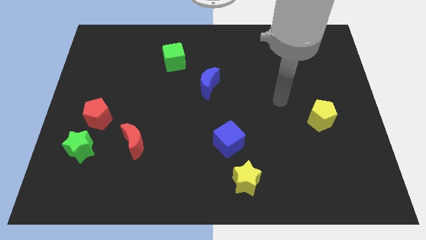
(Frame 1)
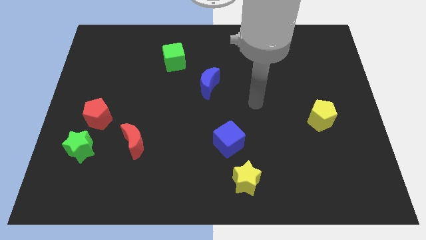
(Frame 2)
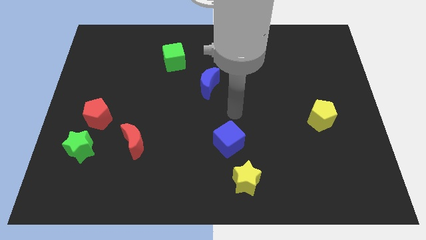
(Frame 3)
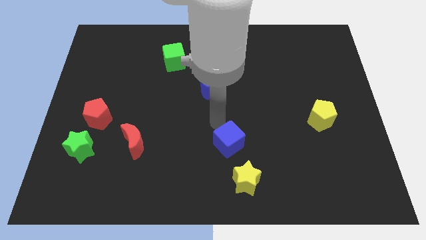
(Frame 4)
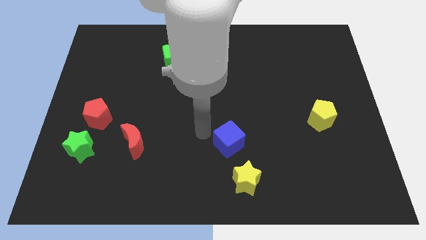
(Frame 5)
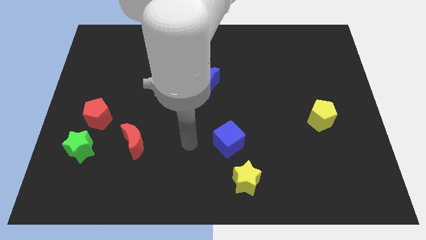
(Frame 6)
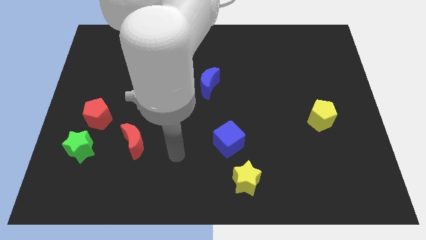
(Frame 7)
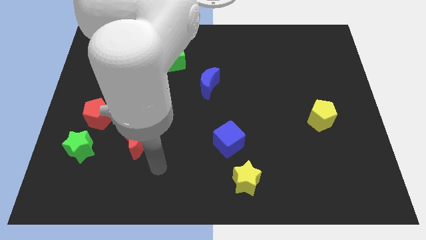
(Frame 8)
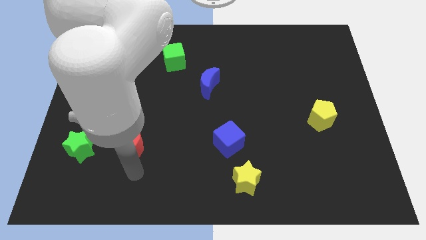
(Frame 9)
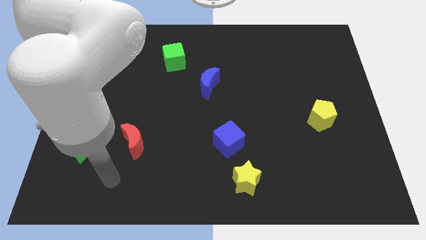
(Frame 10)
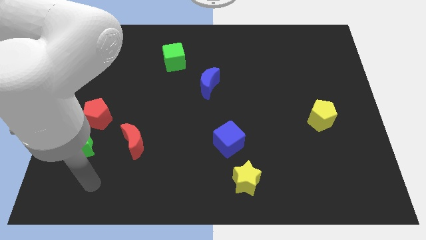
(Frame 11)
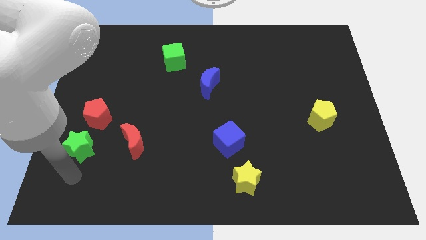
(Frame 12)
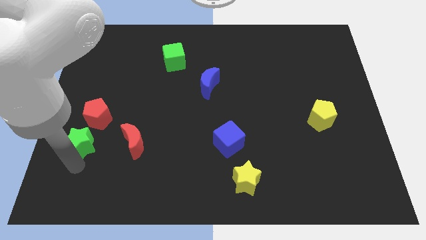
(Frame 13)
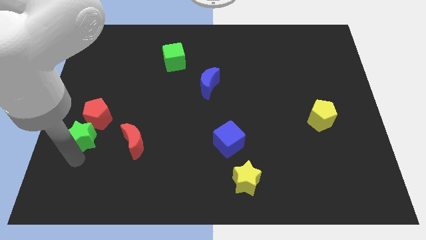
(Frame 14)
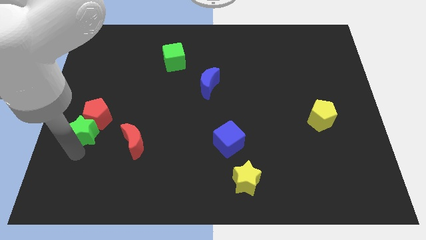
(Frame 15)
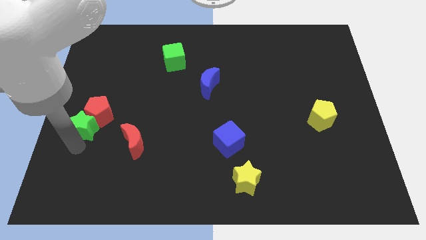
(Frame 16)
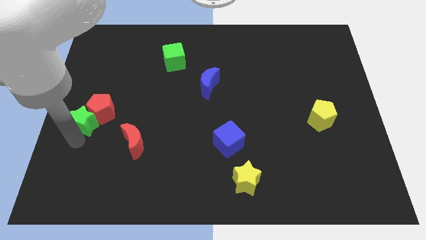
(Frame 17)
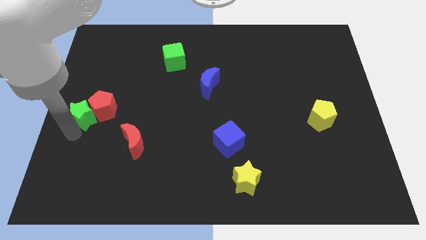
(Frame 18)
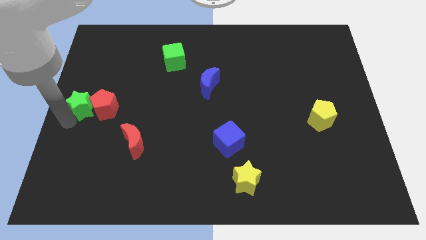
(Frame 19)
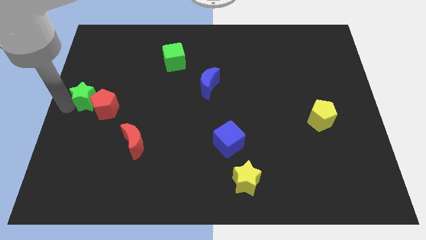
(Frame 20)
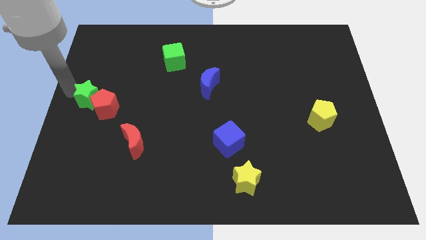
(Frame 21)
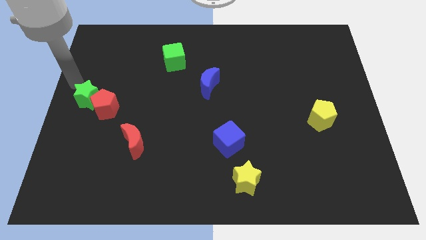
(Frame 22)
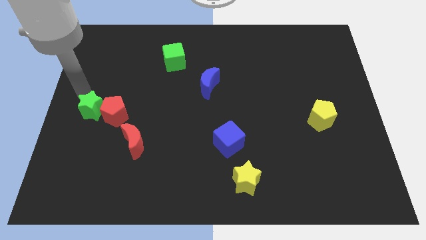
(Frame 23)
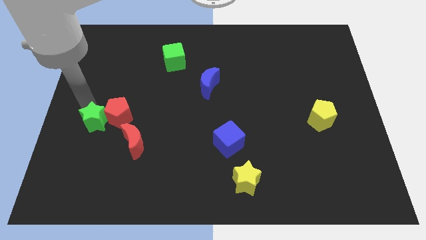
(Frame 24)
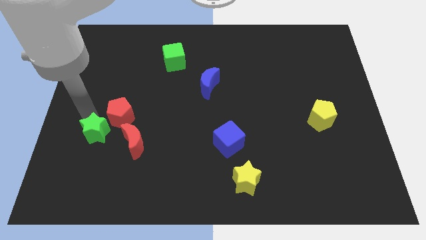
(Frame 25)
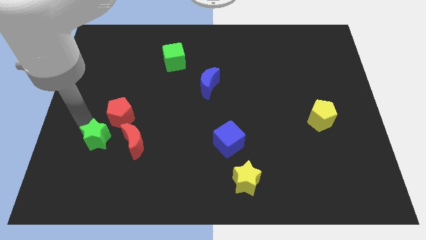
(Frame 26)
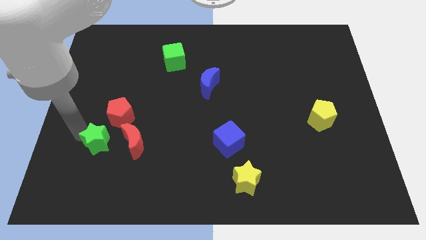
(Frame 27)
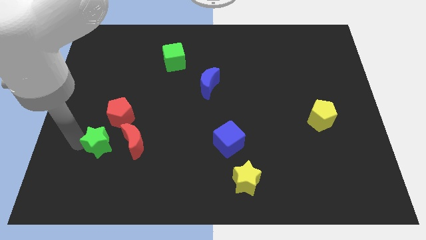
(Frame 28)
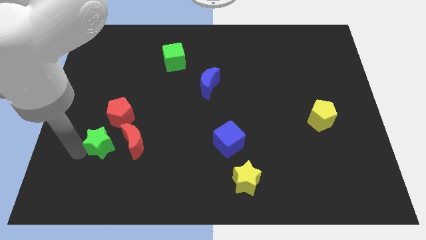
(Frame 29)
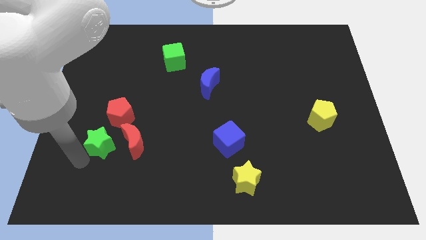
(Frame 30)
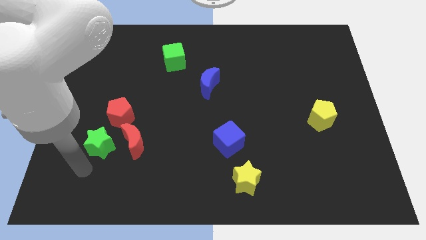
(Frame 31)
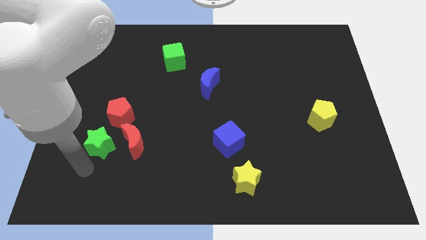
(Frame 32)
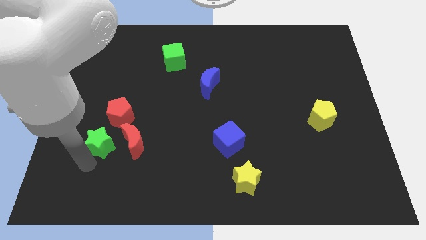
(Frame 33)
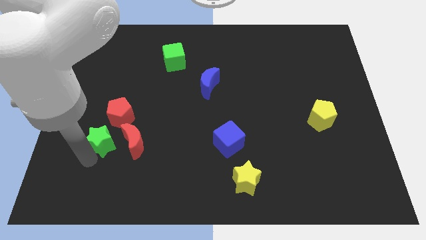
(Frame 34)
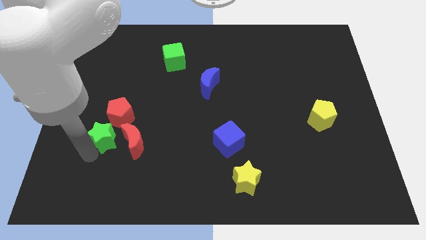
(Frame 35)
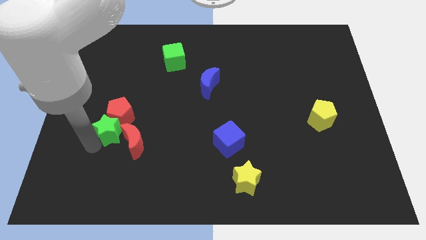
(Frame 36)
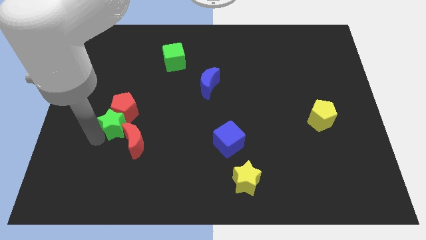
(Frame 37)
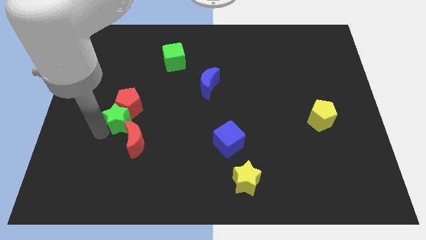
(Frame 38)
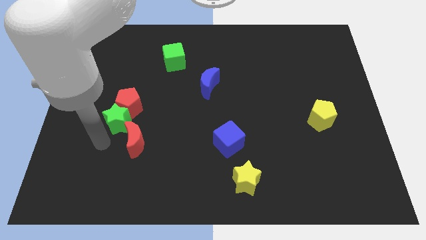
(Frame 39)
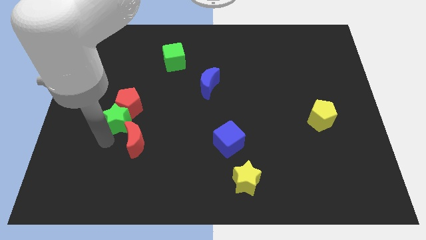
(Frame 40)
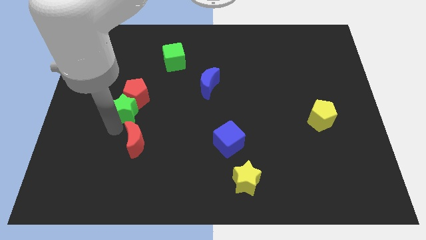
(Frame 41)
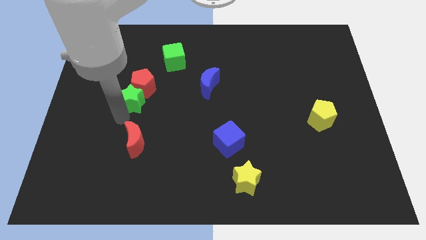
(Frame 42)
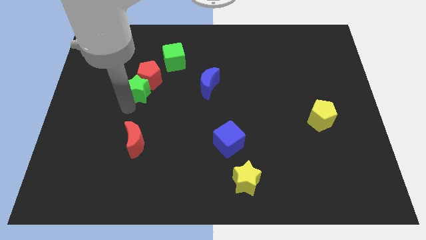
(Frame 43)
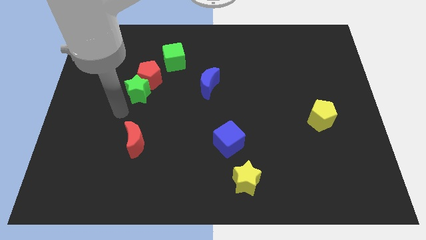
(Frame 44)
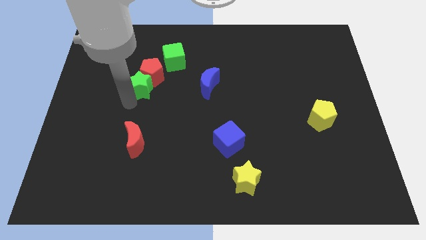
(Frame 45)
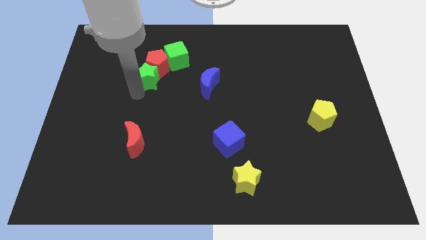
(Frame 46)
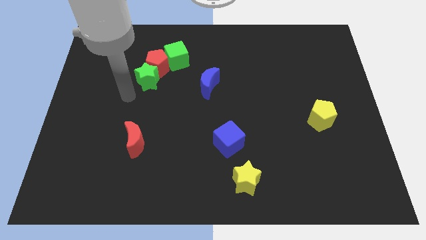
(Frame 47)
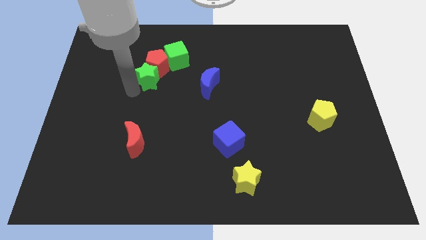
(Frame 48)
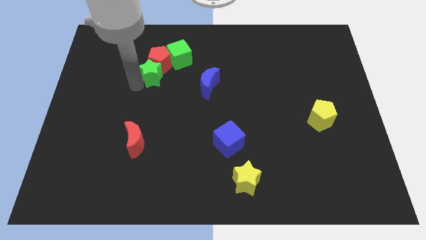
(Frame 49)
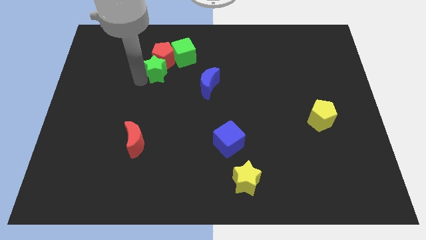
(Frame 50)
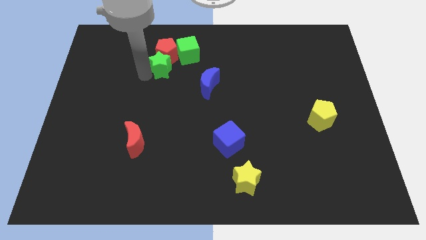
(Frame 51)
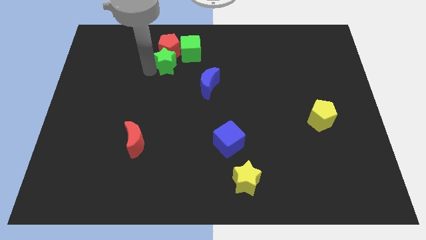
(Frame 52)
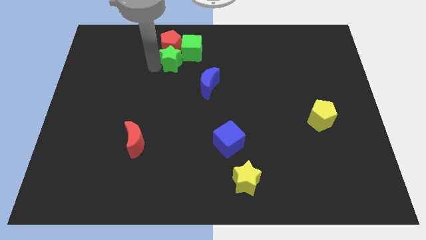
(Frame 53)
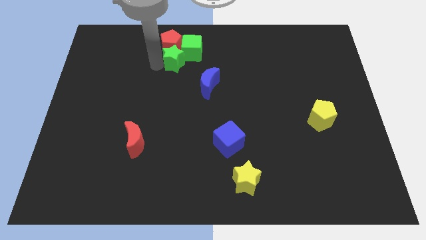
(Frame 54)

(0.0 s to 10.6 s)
push the green star towards the green cube

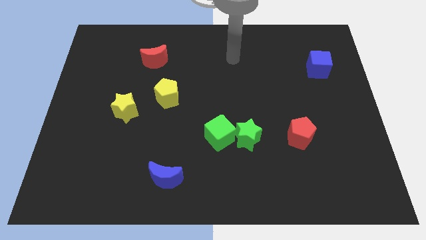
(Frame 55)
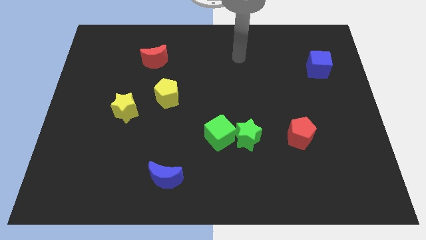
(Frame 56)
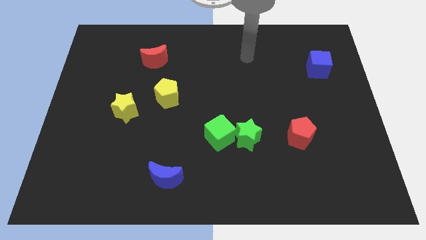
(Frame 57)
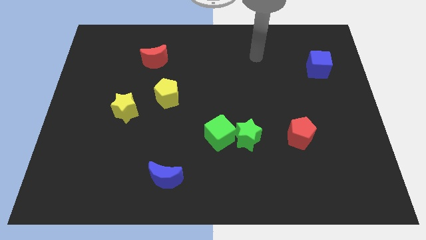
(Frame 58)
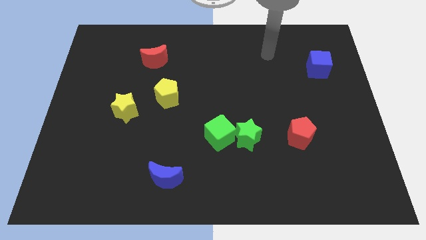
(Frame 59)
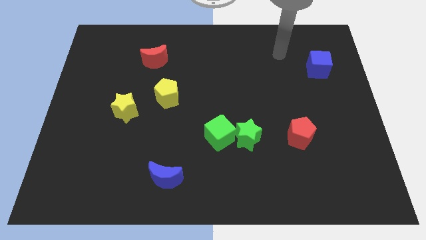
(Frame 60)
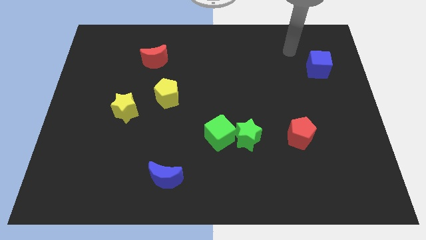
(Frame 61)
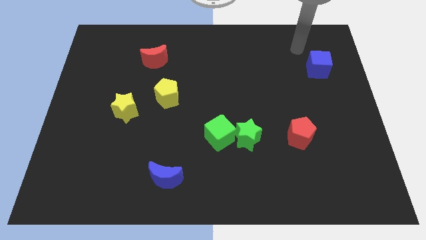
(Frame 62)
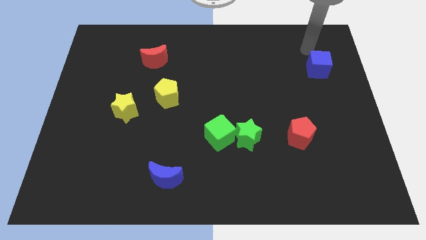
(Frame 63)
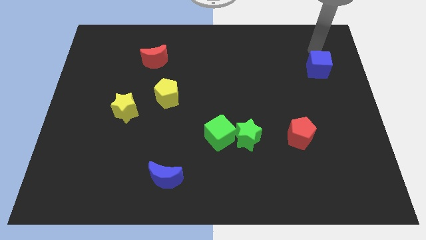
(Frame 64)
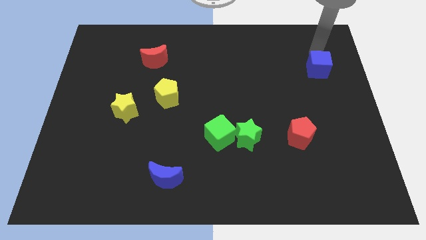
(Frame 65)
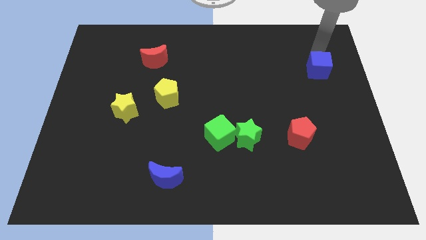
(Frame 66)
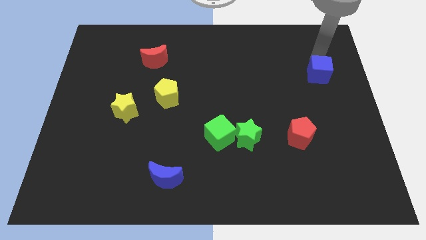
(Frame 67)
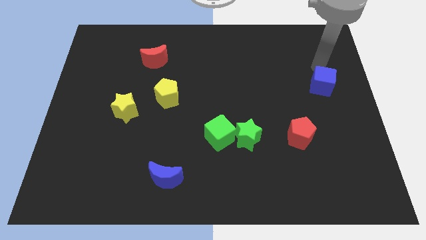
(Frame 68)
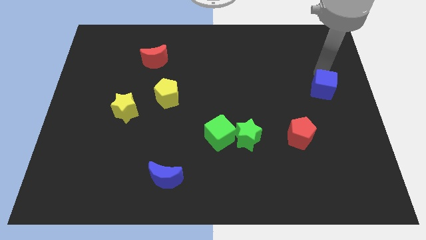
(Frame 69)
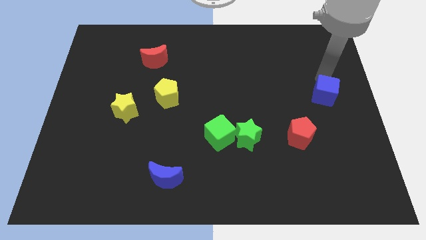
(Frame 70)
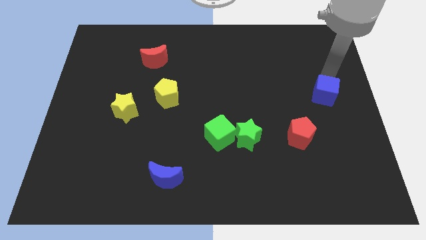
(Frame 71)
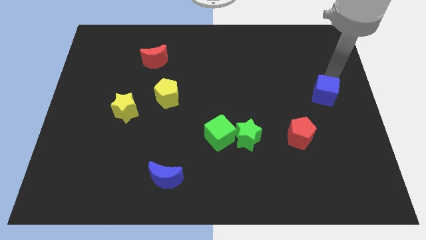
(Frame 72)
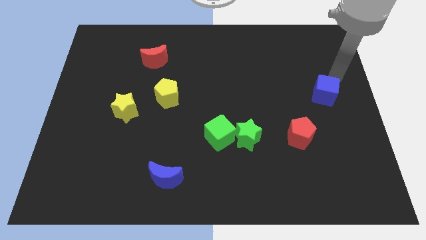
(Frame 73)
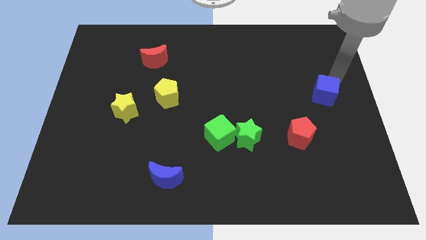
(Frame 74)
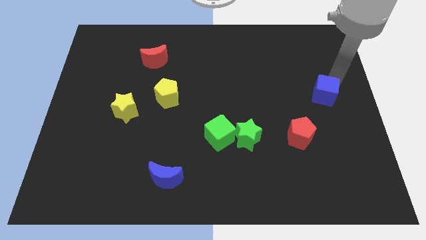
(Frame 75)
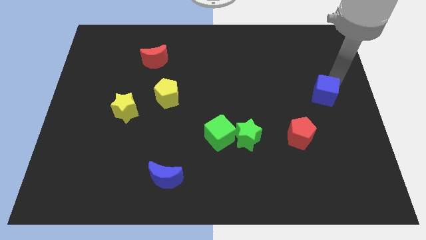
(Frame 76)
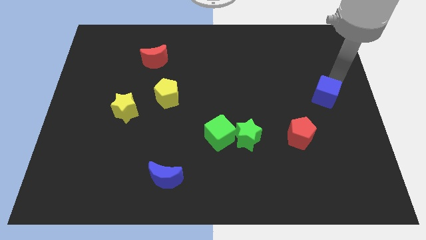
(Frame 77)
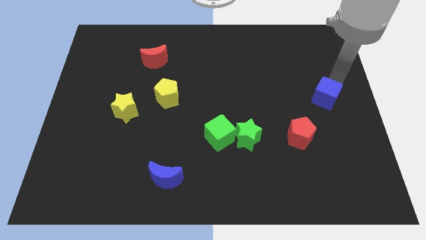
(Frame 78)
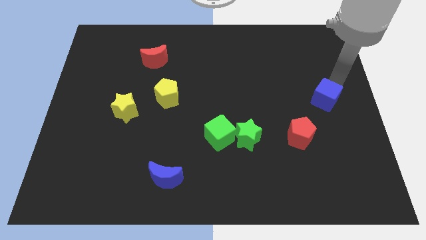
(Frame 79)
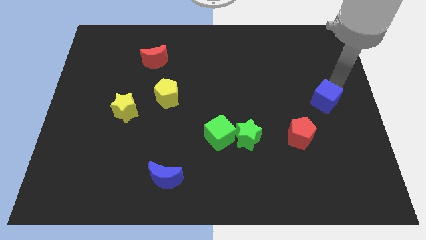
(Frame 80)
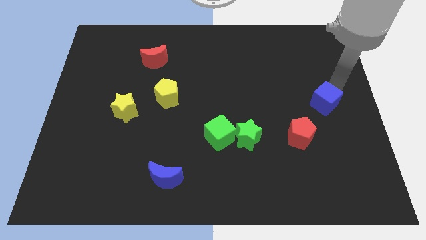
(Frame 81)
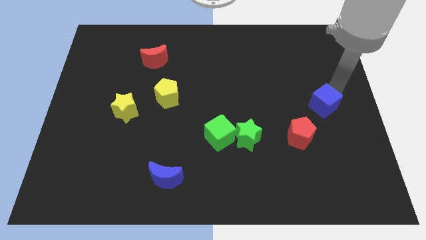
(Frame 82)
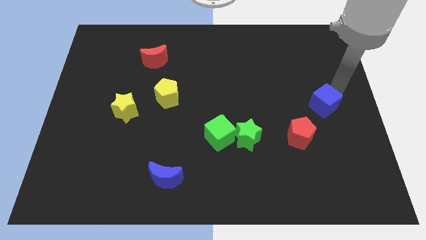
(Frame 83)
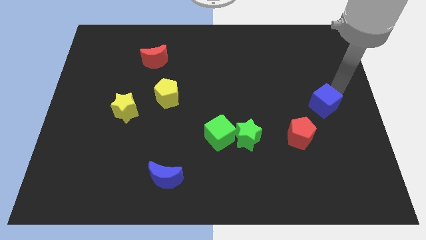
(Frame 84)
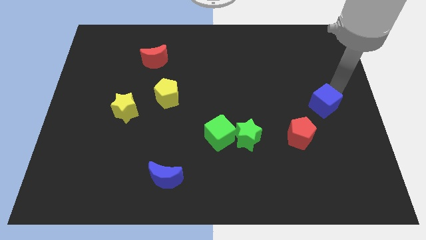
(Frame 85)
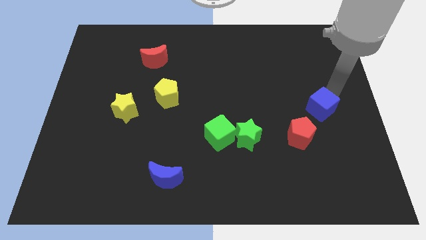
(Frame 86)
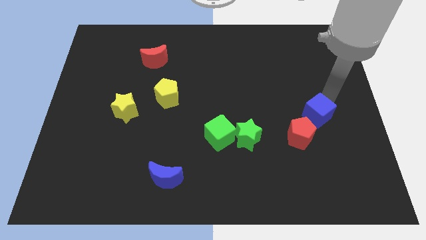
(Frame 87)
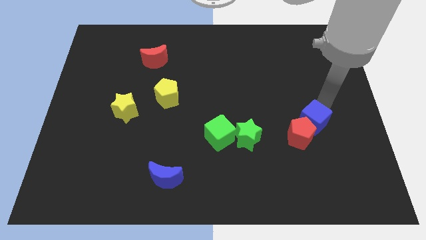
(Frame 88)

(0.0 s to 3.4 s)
put the blue cube to the red pentagon
